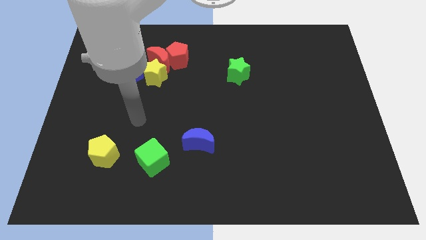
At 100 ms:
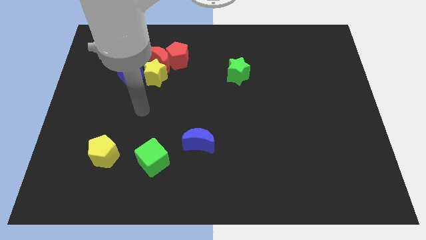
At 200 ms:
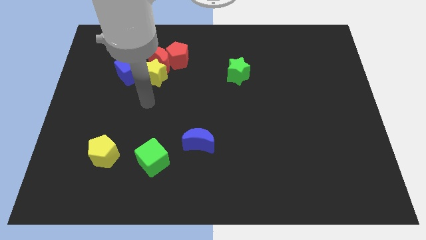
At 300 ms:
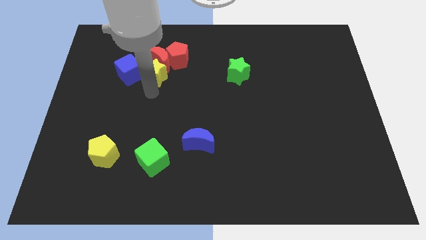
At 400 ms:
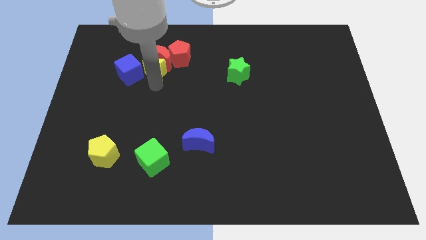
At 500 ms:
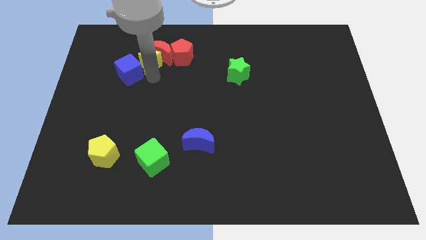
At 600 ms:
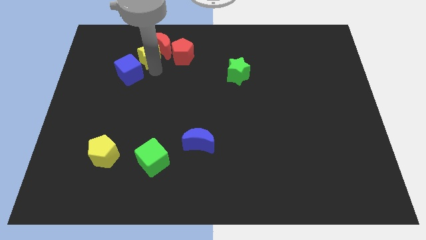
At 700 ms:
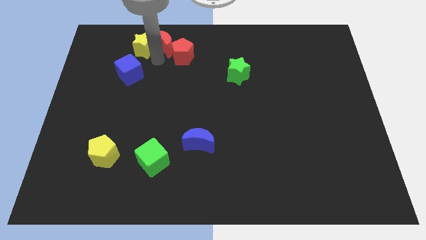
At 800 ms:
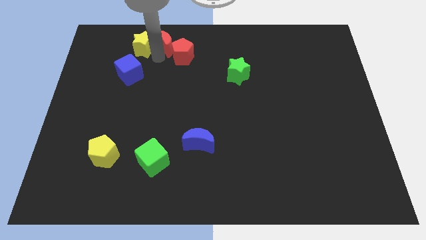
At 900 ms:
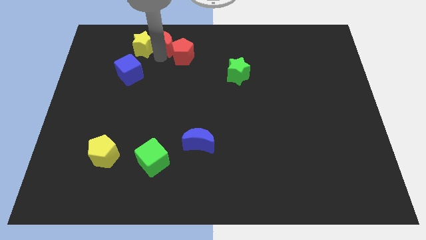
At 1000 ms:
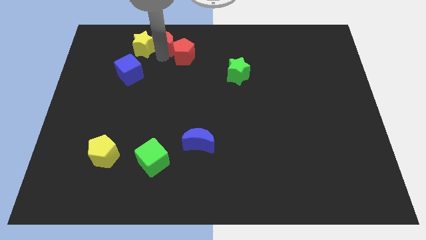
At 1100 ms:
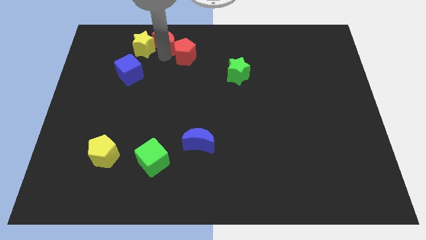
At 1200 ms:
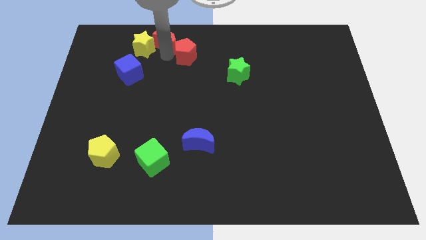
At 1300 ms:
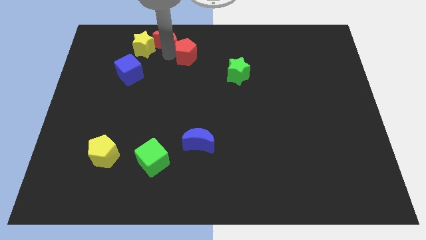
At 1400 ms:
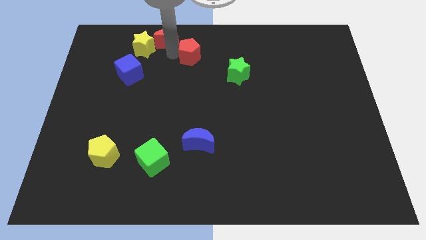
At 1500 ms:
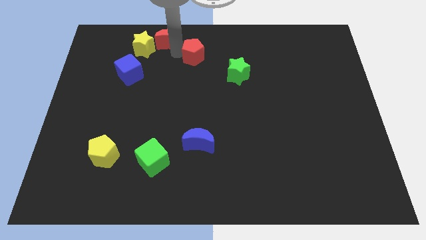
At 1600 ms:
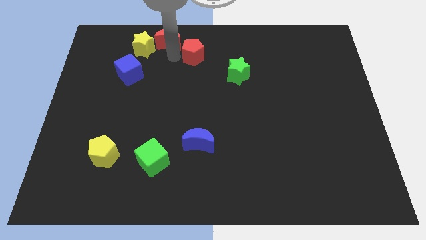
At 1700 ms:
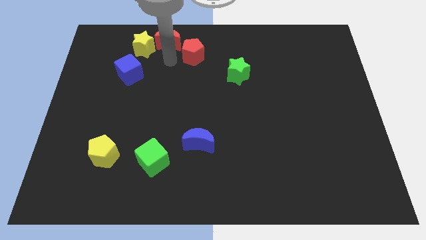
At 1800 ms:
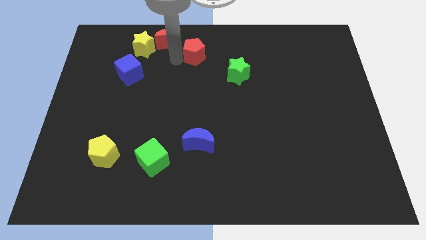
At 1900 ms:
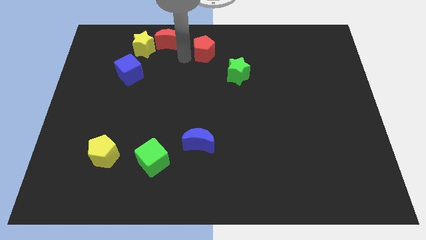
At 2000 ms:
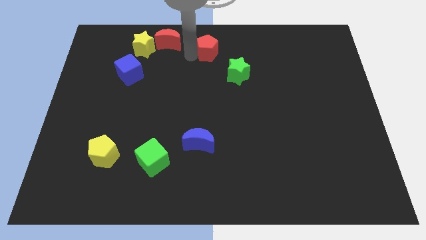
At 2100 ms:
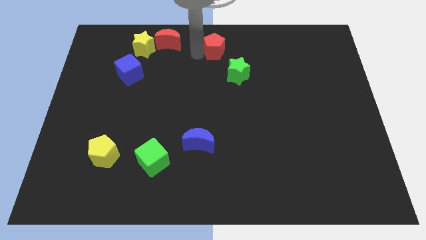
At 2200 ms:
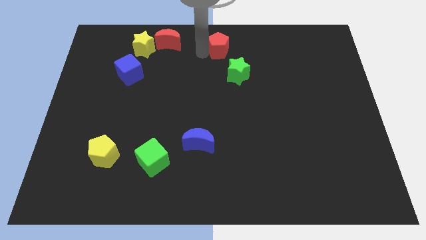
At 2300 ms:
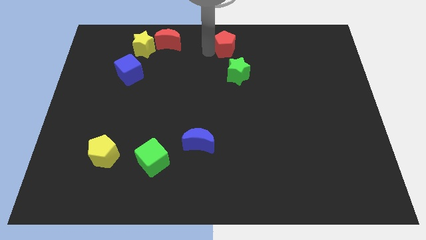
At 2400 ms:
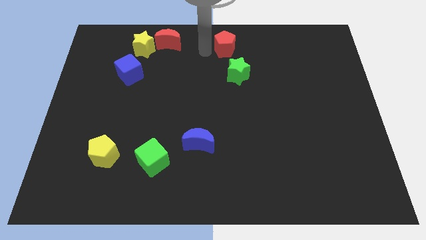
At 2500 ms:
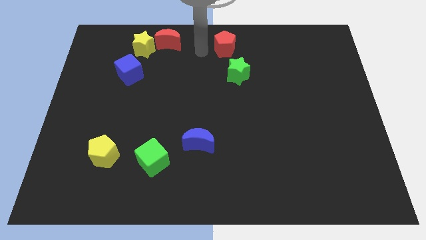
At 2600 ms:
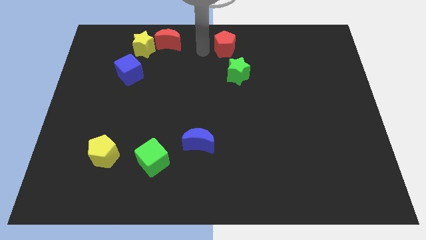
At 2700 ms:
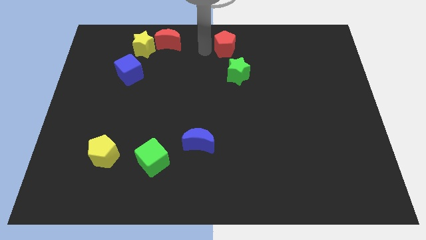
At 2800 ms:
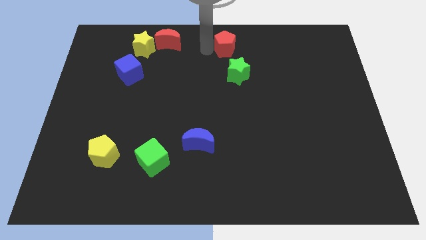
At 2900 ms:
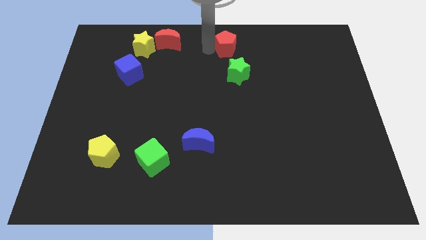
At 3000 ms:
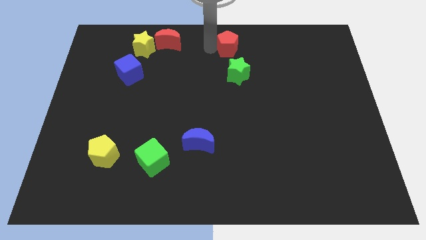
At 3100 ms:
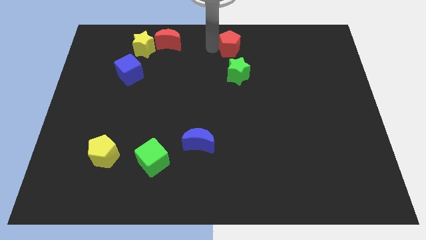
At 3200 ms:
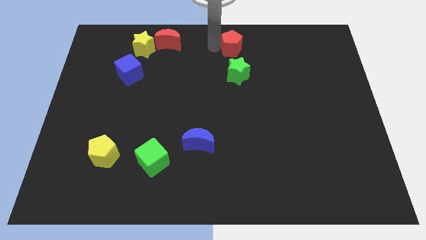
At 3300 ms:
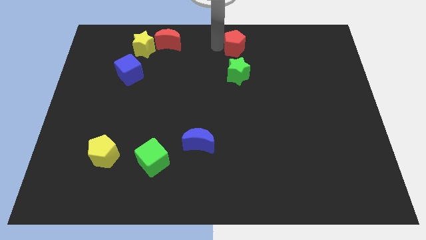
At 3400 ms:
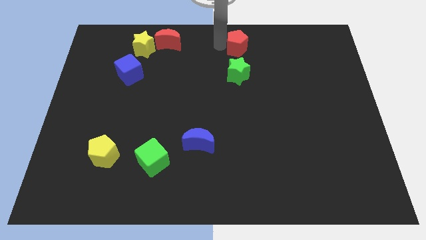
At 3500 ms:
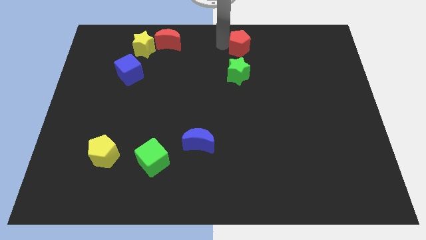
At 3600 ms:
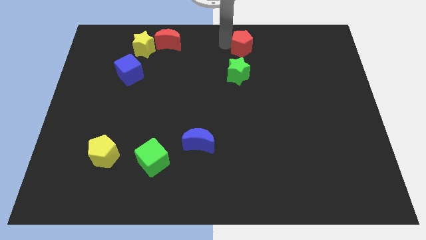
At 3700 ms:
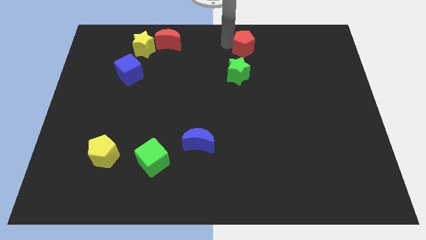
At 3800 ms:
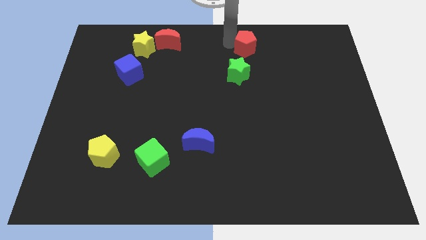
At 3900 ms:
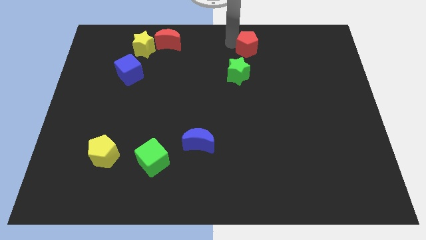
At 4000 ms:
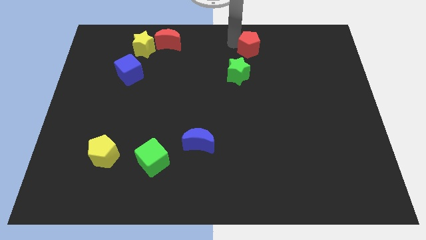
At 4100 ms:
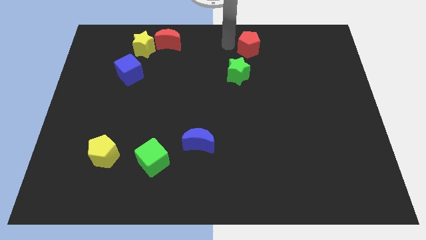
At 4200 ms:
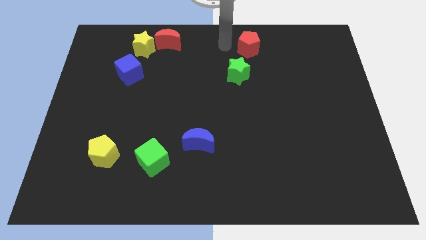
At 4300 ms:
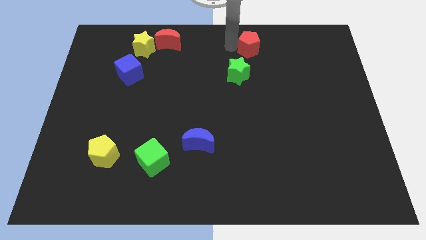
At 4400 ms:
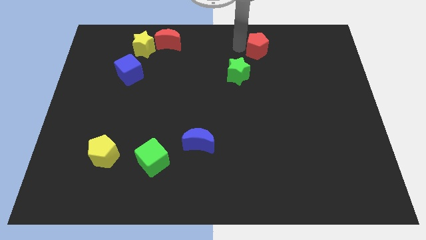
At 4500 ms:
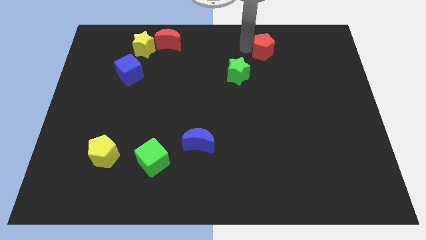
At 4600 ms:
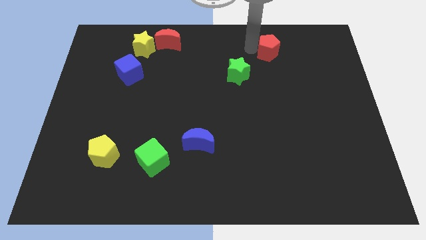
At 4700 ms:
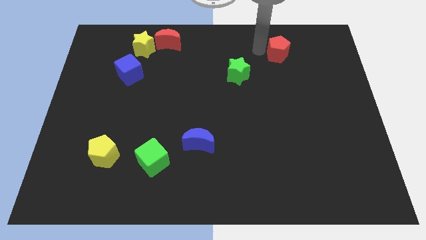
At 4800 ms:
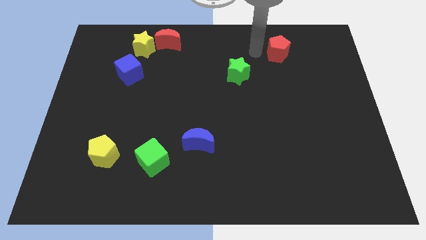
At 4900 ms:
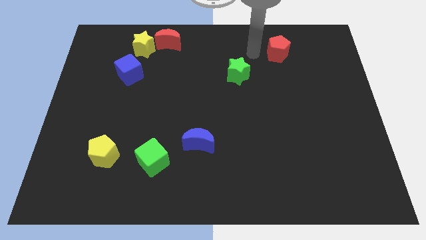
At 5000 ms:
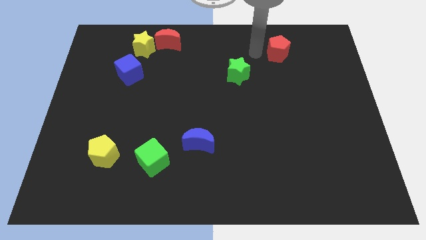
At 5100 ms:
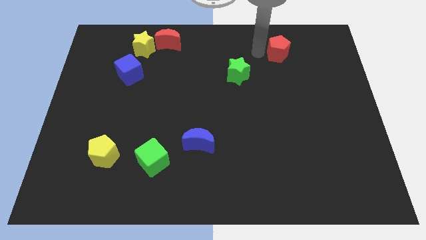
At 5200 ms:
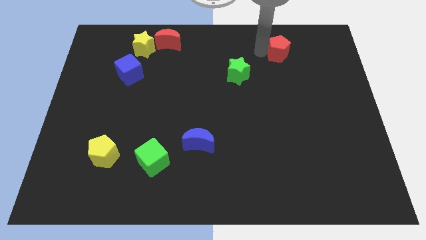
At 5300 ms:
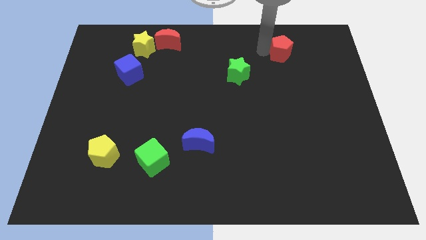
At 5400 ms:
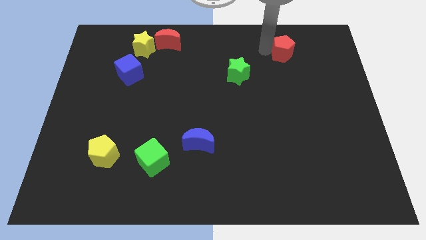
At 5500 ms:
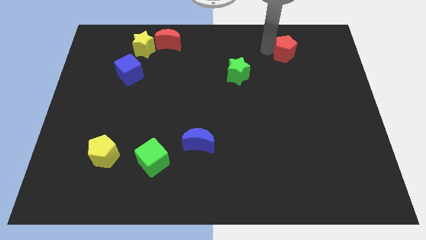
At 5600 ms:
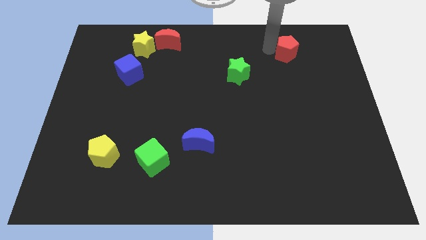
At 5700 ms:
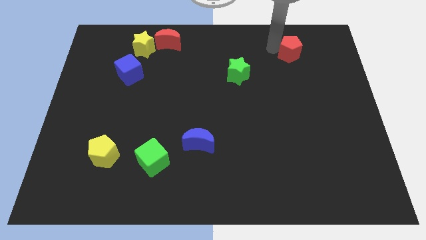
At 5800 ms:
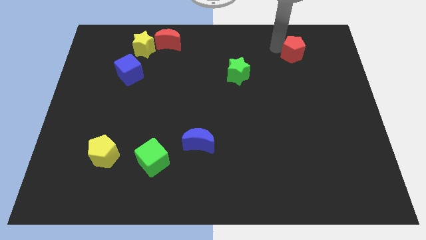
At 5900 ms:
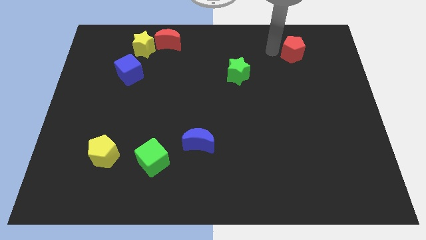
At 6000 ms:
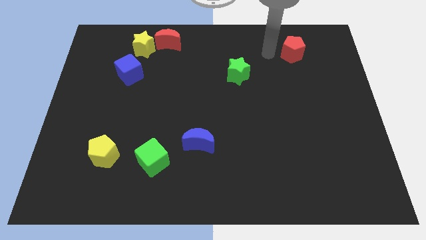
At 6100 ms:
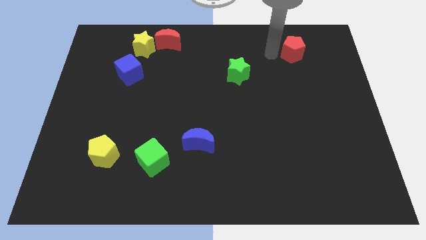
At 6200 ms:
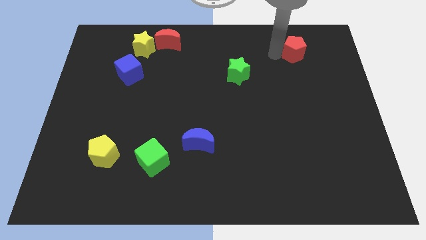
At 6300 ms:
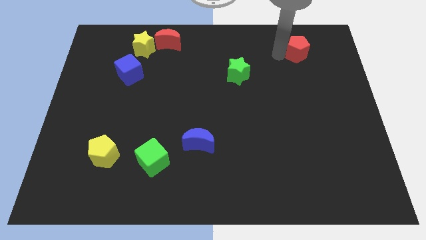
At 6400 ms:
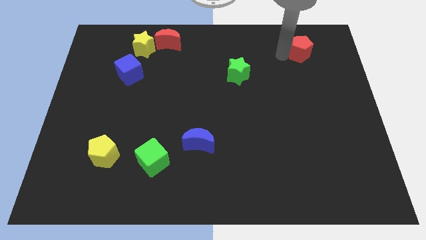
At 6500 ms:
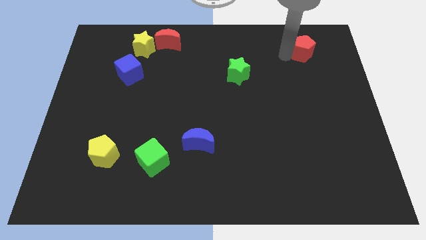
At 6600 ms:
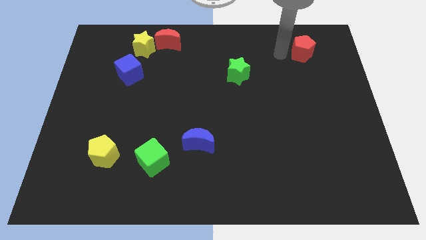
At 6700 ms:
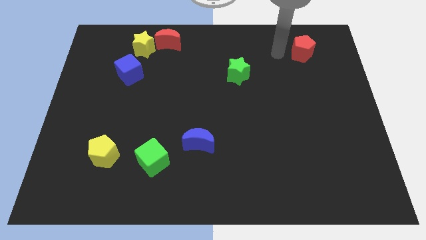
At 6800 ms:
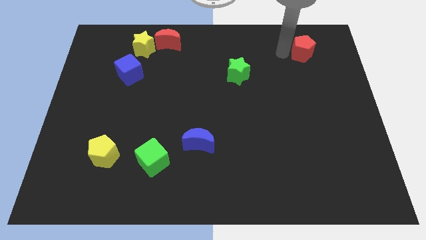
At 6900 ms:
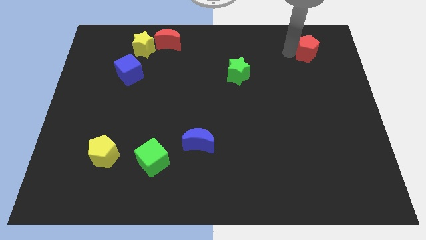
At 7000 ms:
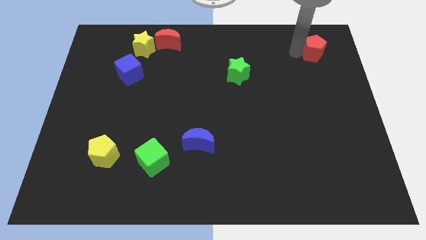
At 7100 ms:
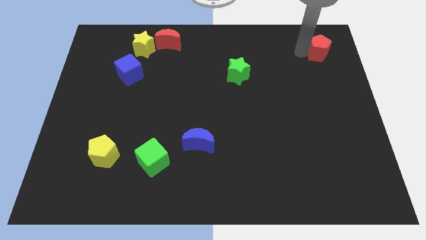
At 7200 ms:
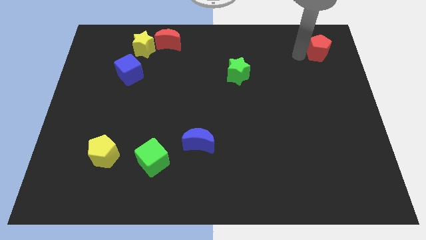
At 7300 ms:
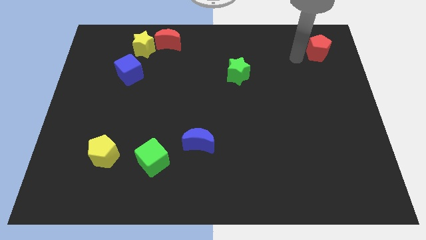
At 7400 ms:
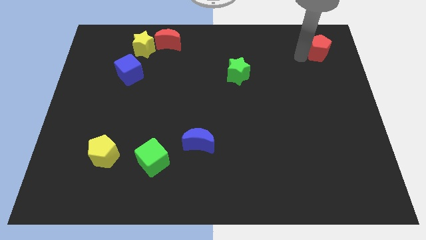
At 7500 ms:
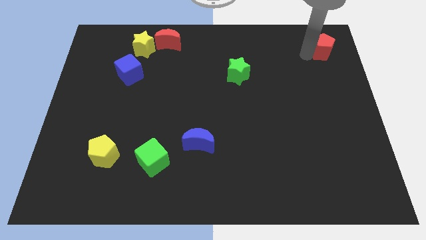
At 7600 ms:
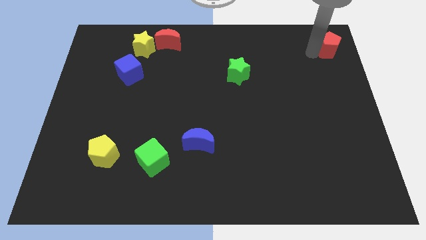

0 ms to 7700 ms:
slide the red pentagon to the top right
